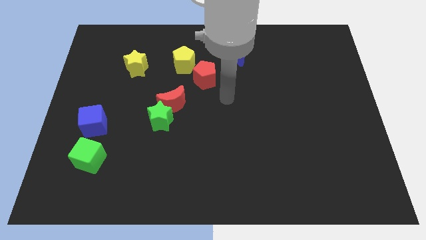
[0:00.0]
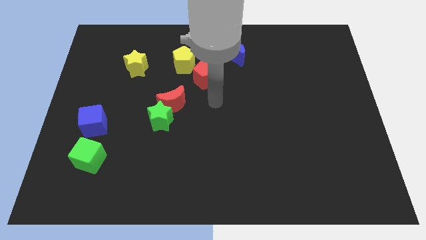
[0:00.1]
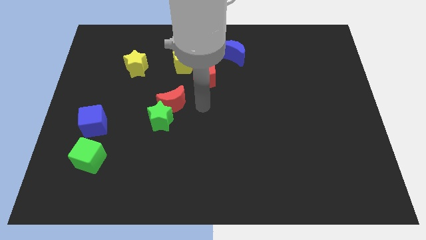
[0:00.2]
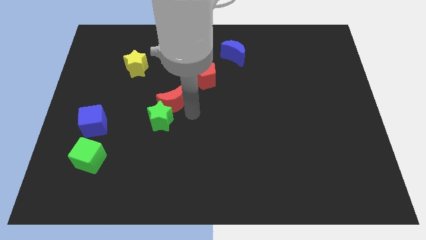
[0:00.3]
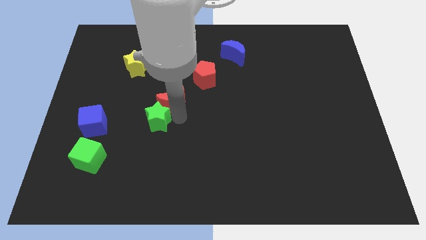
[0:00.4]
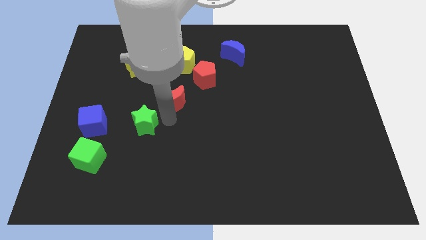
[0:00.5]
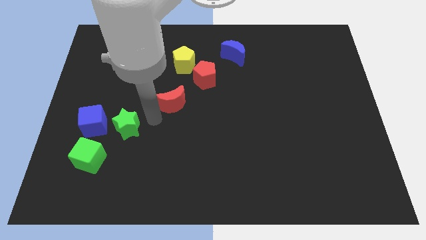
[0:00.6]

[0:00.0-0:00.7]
pull the red moon apart from the green star

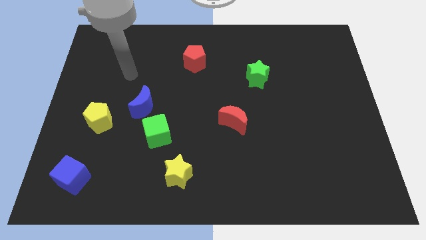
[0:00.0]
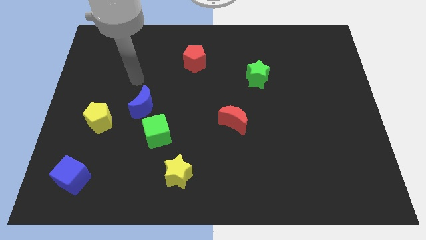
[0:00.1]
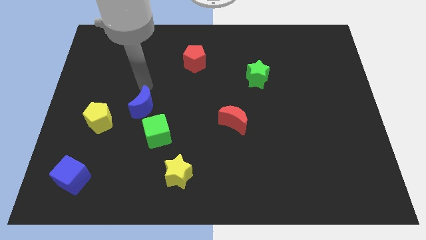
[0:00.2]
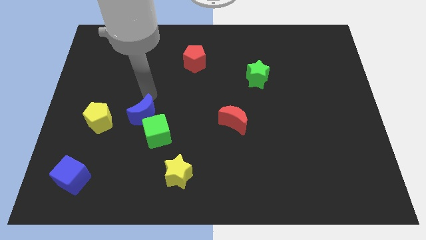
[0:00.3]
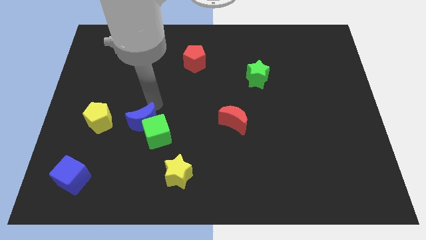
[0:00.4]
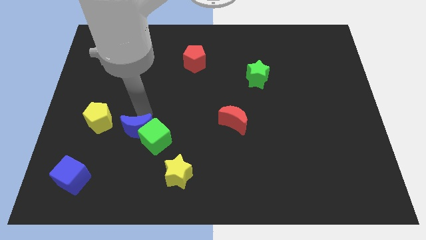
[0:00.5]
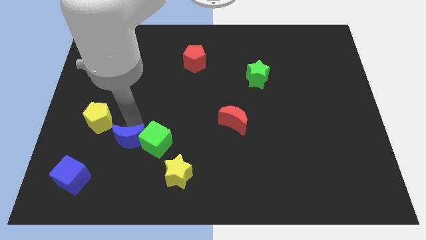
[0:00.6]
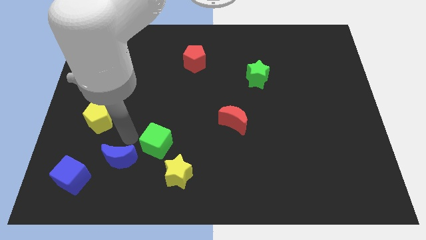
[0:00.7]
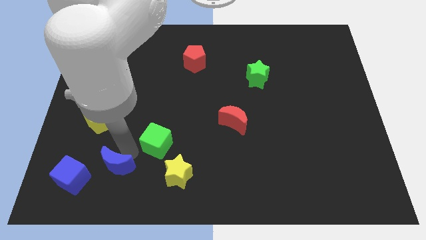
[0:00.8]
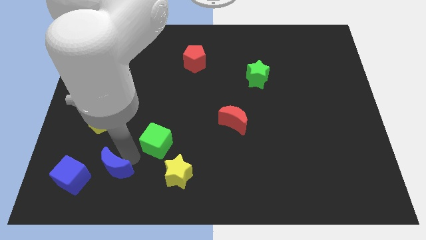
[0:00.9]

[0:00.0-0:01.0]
separate the green cube from the blue moon

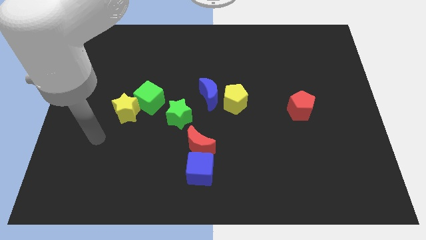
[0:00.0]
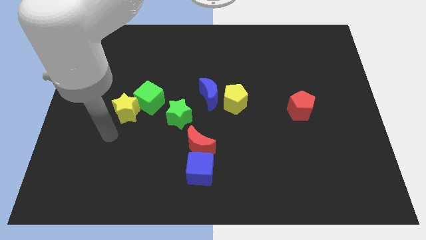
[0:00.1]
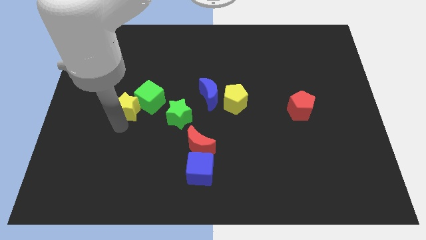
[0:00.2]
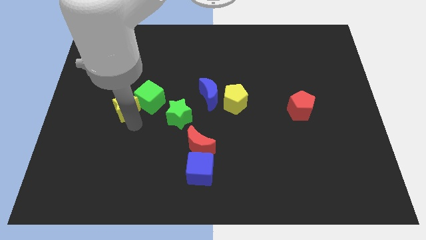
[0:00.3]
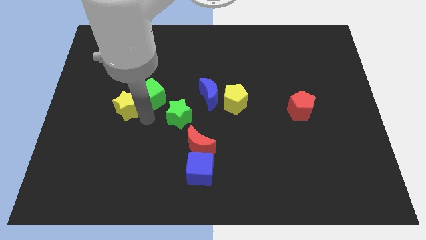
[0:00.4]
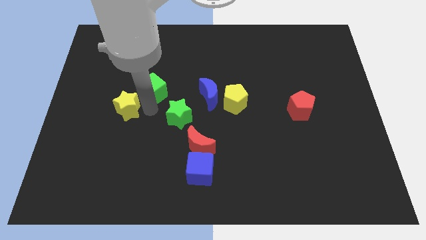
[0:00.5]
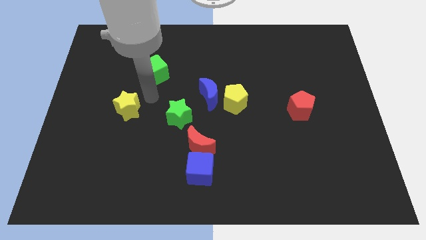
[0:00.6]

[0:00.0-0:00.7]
move the yellow star away from the green cube

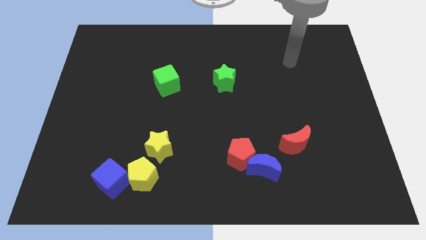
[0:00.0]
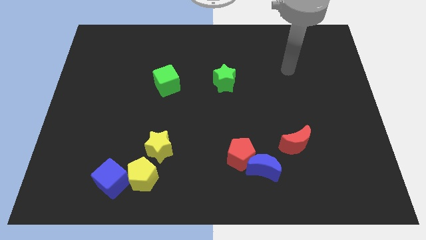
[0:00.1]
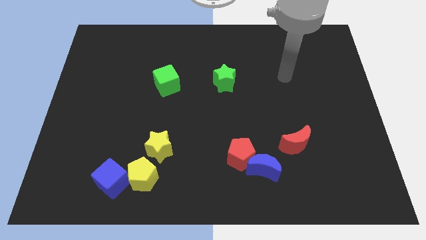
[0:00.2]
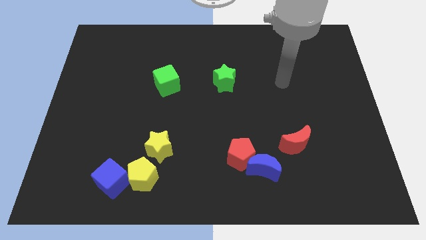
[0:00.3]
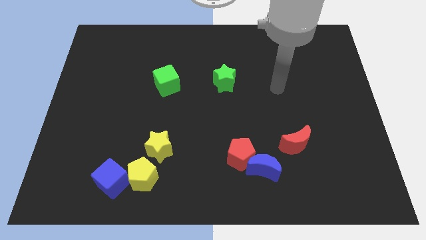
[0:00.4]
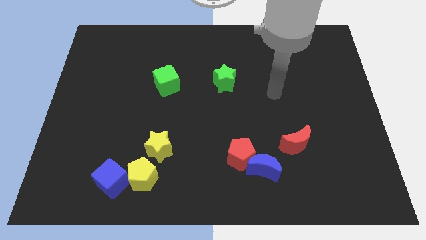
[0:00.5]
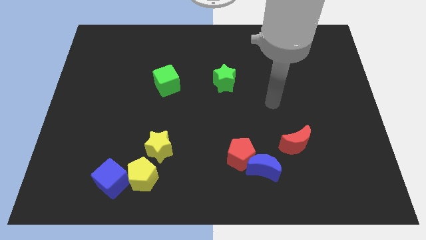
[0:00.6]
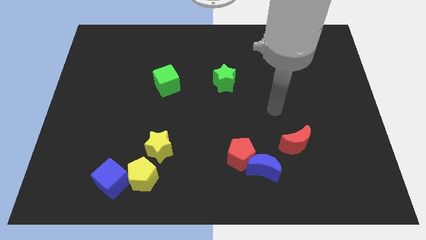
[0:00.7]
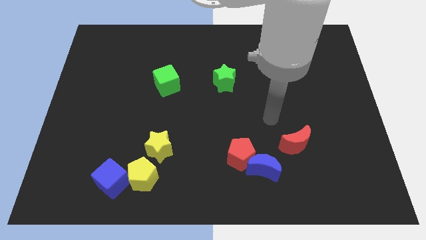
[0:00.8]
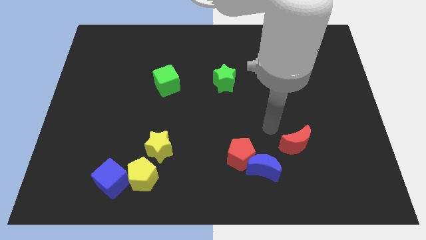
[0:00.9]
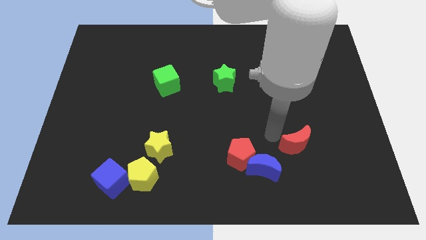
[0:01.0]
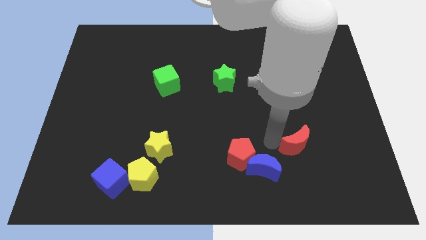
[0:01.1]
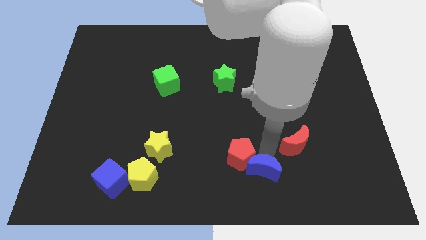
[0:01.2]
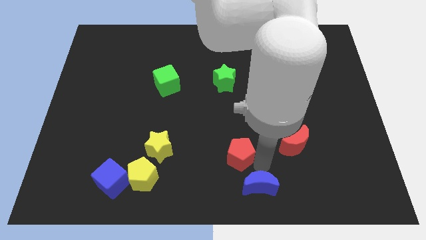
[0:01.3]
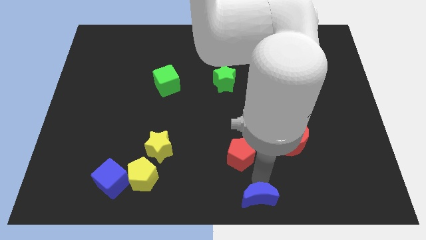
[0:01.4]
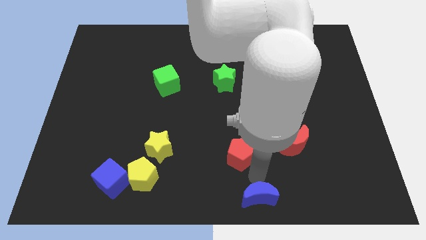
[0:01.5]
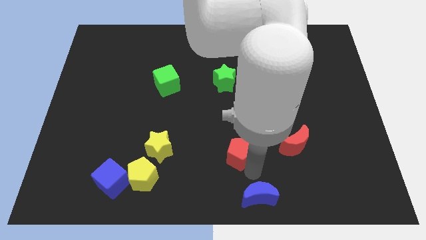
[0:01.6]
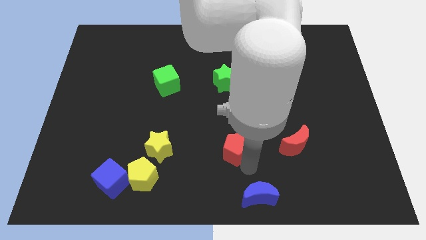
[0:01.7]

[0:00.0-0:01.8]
move the red pentagon away from the blue moon

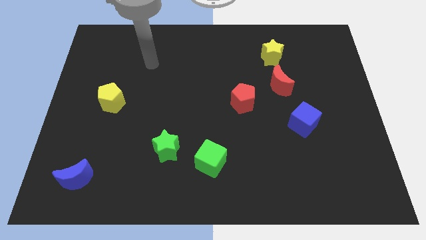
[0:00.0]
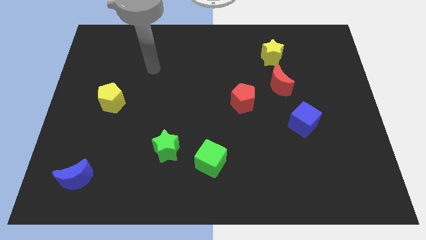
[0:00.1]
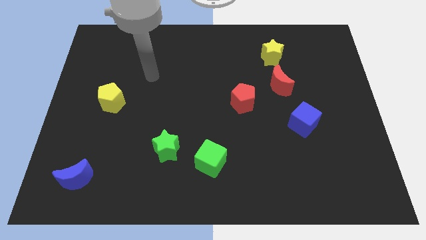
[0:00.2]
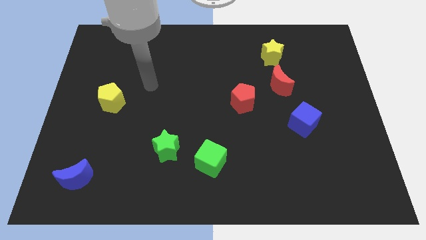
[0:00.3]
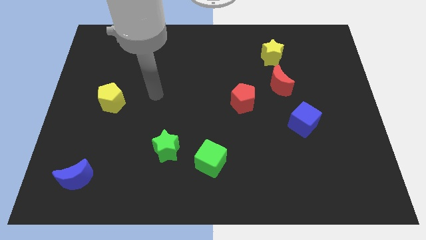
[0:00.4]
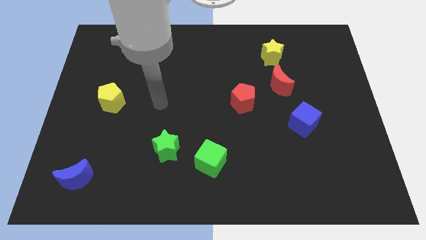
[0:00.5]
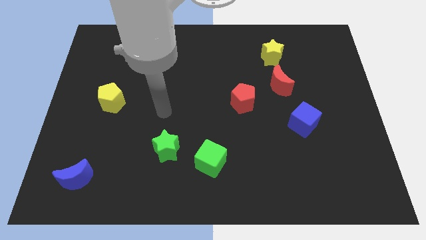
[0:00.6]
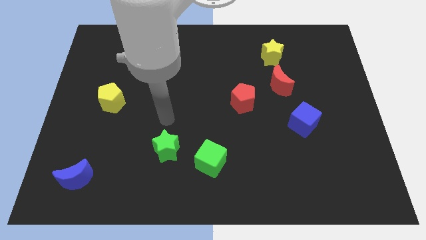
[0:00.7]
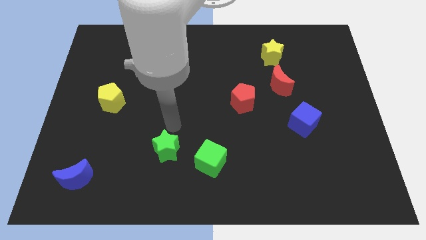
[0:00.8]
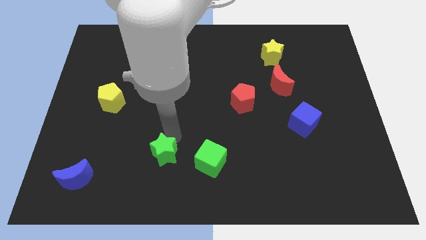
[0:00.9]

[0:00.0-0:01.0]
pull the green cube apart from the green star

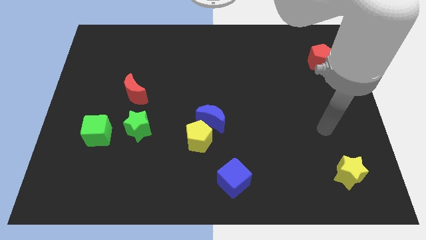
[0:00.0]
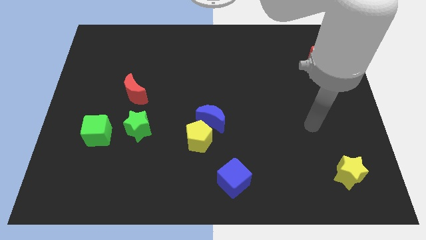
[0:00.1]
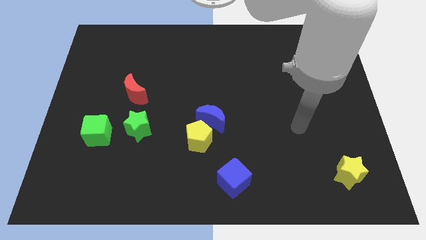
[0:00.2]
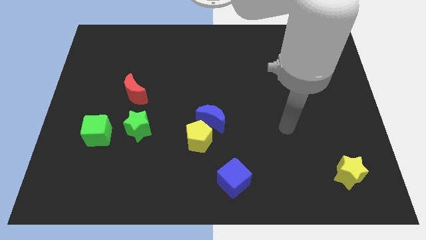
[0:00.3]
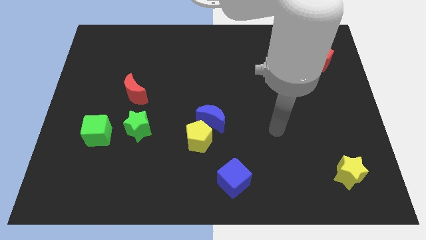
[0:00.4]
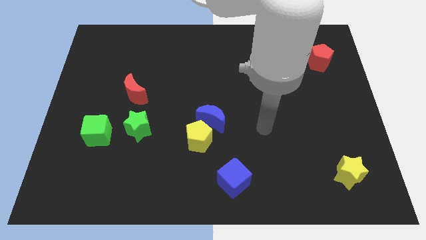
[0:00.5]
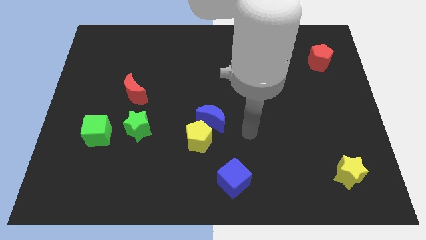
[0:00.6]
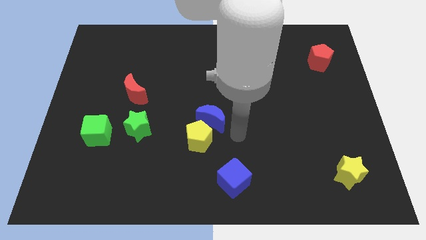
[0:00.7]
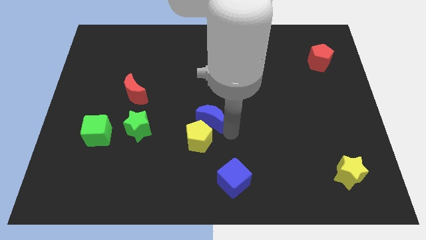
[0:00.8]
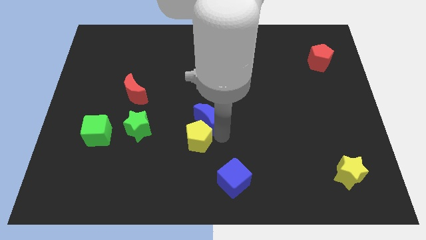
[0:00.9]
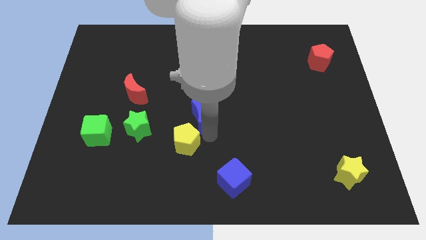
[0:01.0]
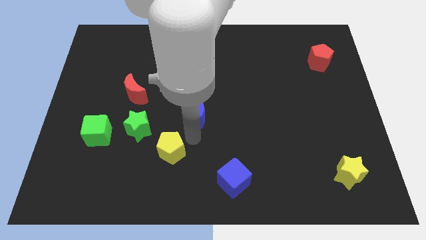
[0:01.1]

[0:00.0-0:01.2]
separate the blue moon from the yellow pentagon

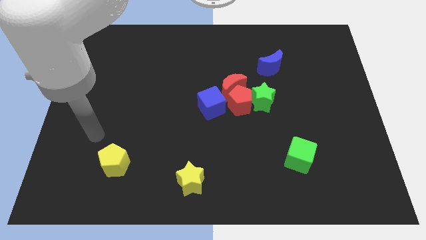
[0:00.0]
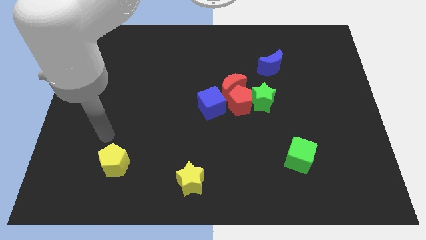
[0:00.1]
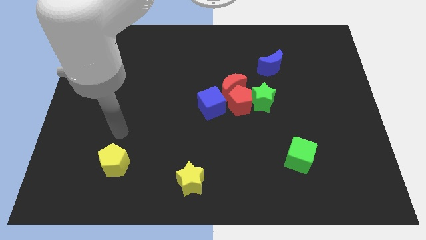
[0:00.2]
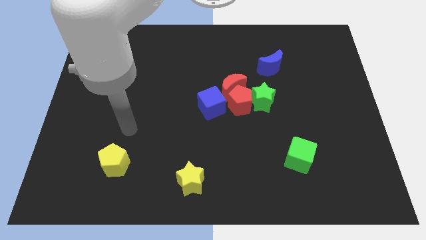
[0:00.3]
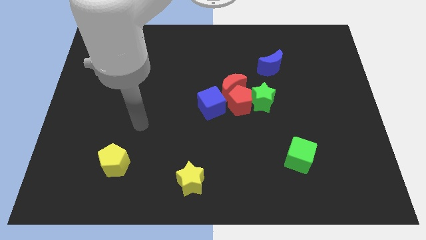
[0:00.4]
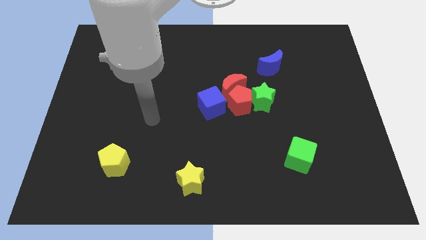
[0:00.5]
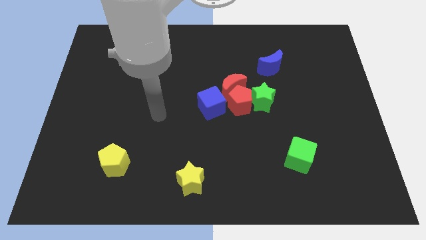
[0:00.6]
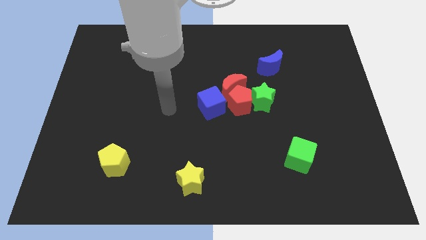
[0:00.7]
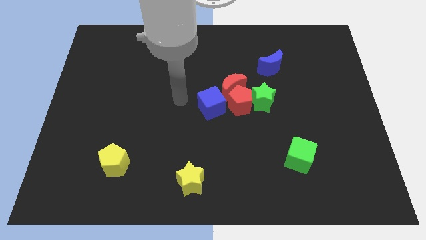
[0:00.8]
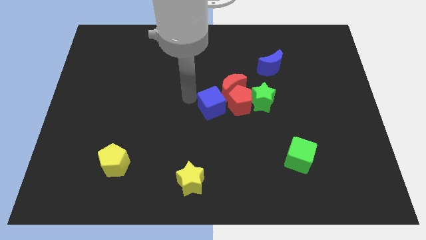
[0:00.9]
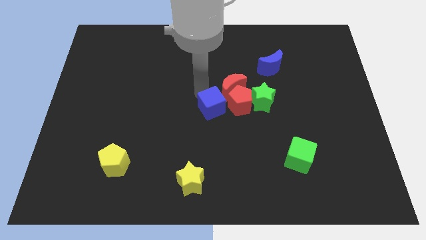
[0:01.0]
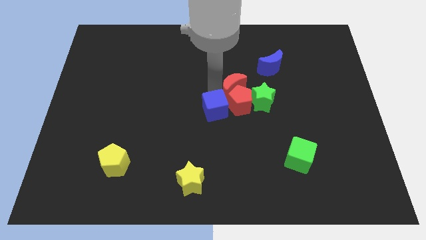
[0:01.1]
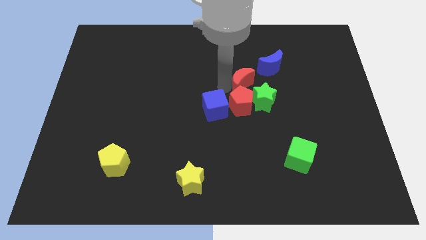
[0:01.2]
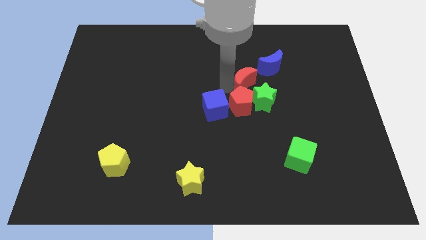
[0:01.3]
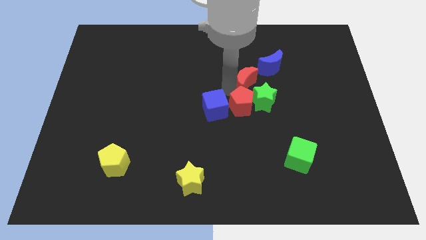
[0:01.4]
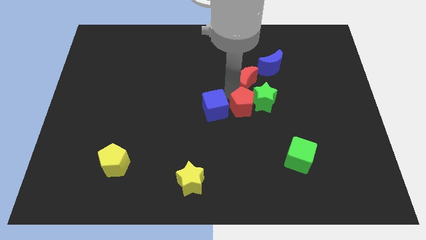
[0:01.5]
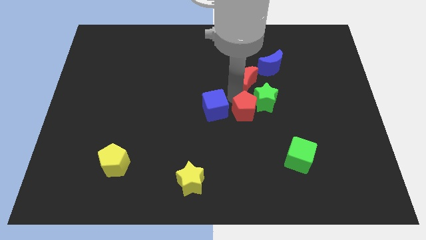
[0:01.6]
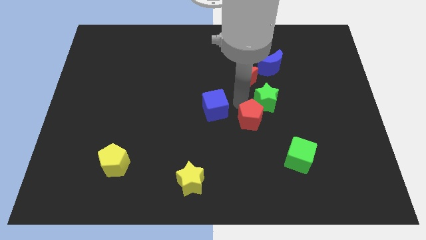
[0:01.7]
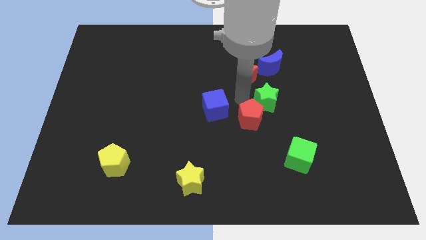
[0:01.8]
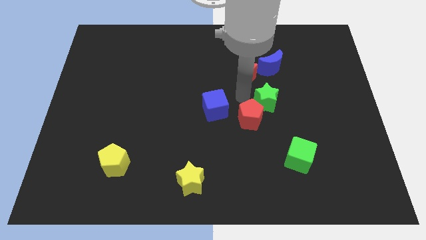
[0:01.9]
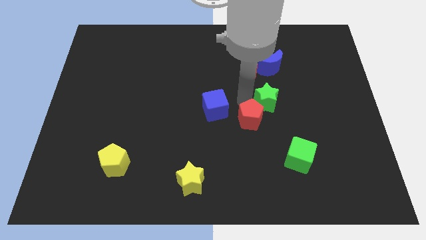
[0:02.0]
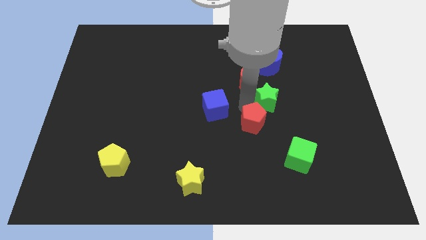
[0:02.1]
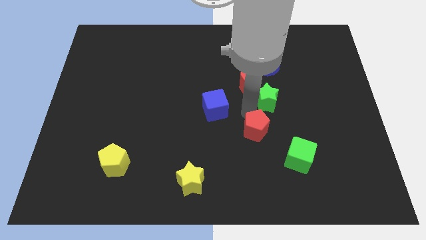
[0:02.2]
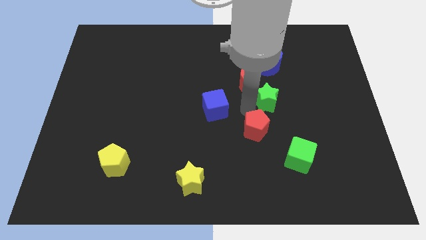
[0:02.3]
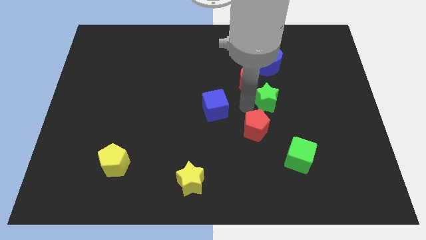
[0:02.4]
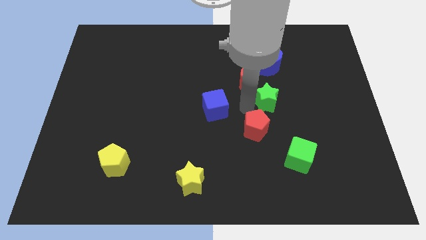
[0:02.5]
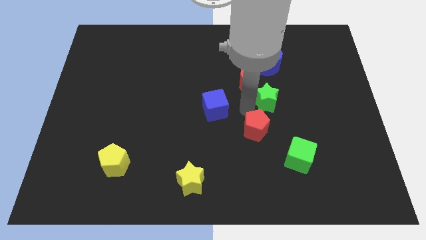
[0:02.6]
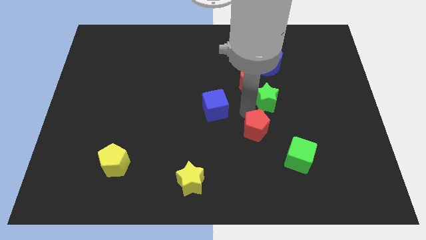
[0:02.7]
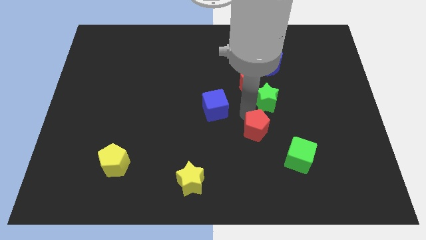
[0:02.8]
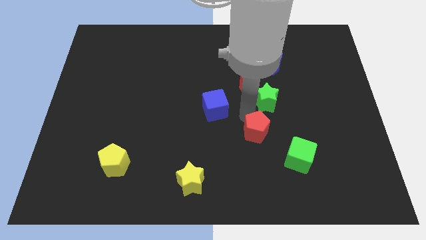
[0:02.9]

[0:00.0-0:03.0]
separate the red pentagon from the red moon, green star, and blue cube
